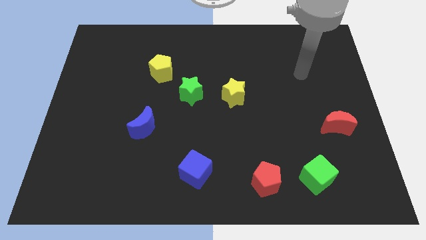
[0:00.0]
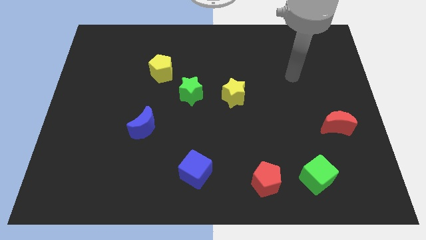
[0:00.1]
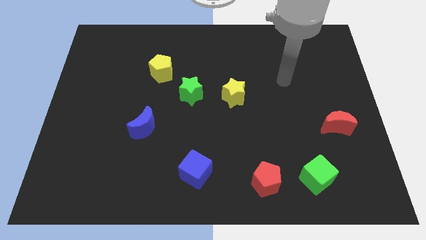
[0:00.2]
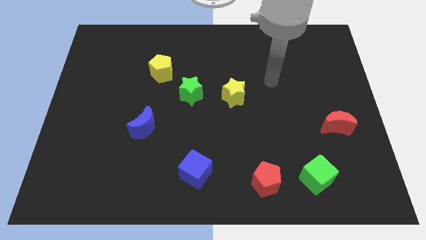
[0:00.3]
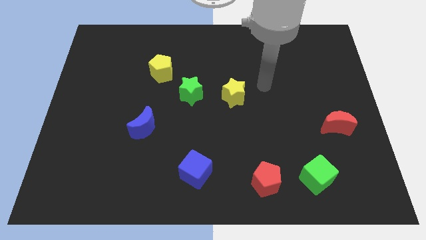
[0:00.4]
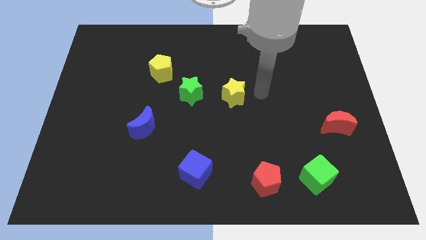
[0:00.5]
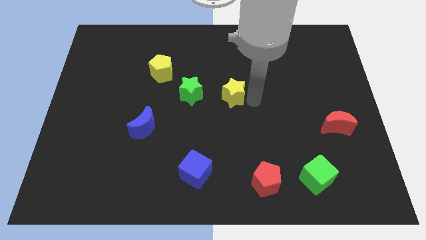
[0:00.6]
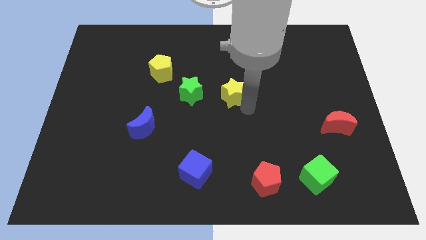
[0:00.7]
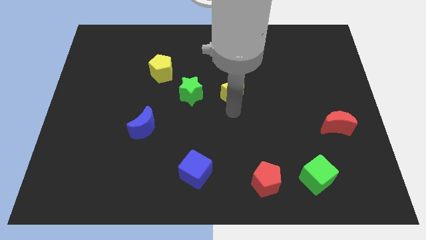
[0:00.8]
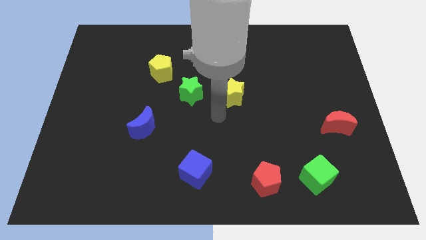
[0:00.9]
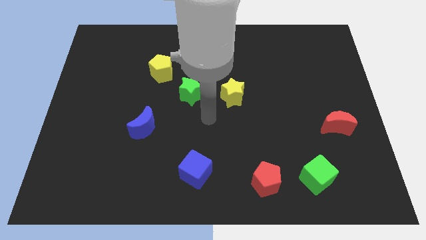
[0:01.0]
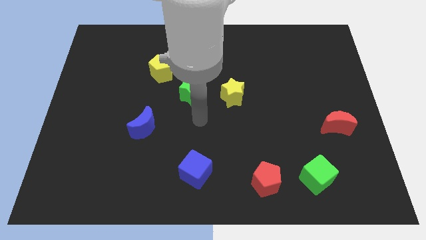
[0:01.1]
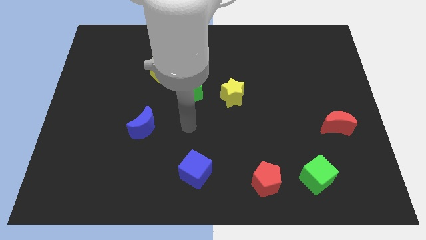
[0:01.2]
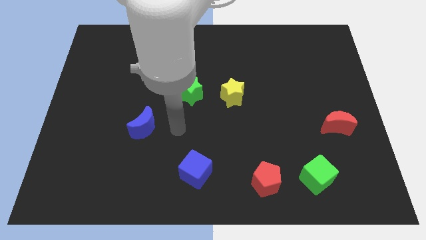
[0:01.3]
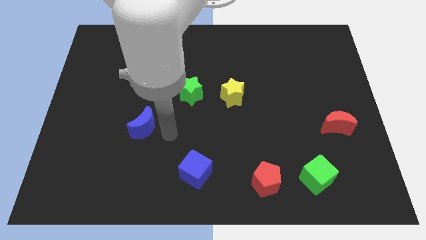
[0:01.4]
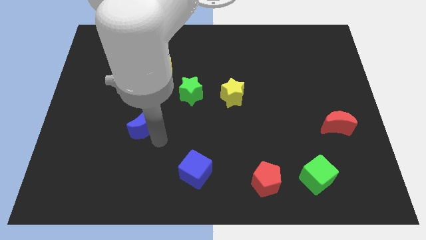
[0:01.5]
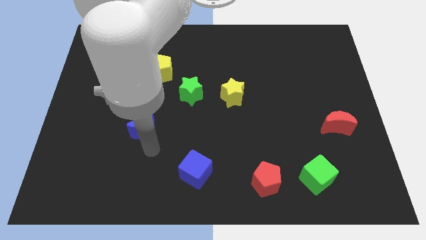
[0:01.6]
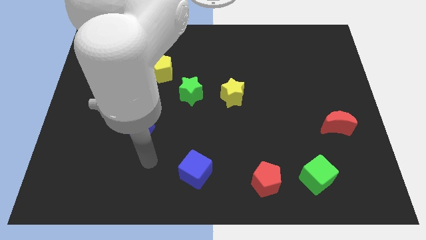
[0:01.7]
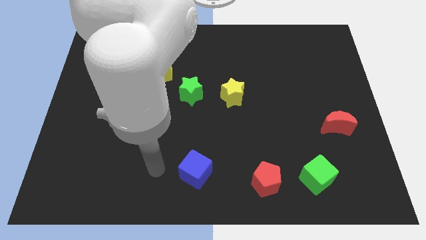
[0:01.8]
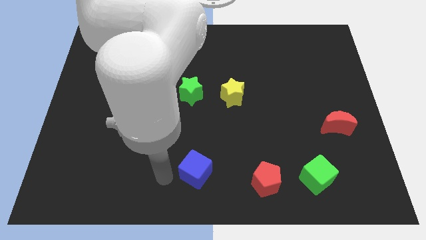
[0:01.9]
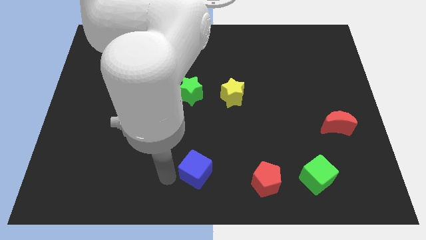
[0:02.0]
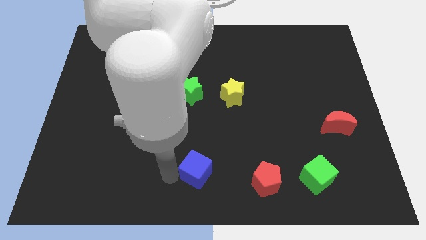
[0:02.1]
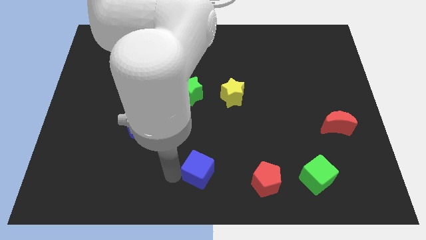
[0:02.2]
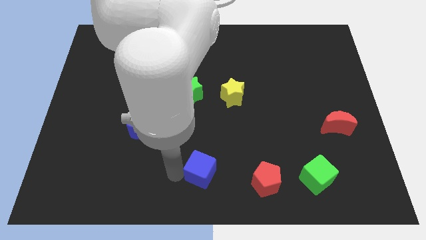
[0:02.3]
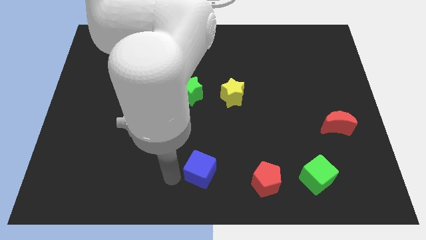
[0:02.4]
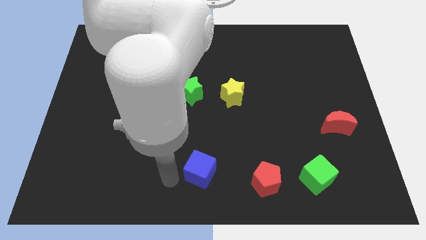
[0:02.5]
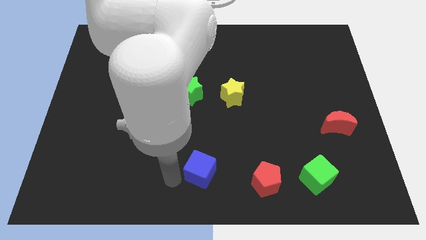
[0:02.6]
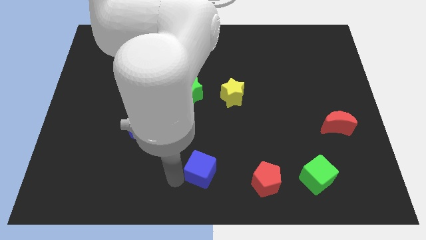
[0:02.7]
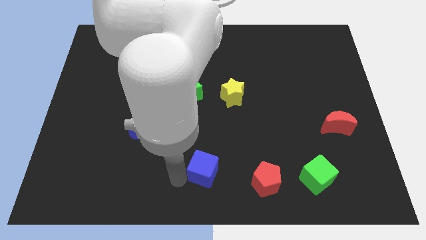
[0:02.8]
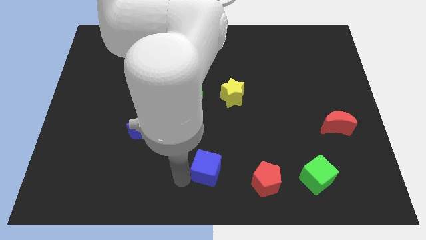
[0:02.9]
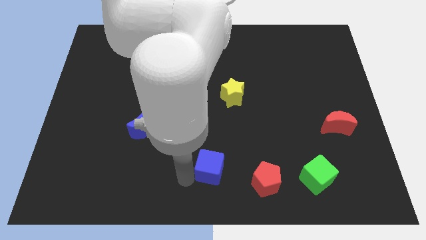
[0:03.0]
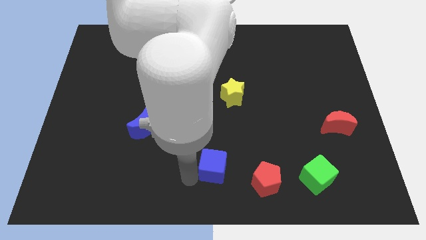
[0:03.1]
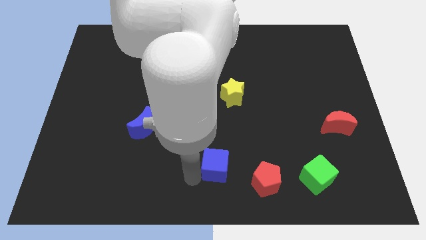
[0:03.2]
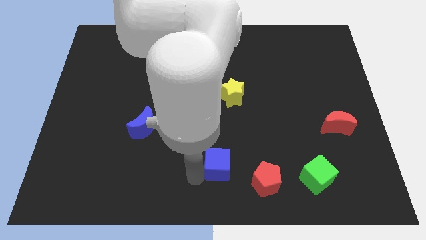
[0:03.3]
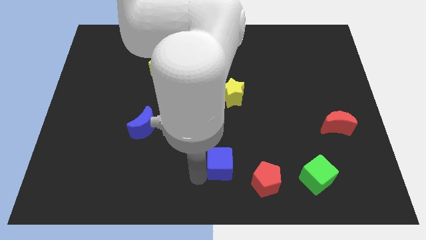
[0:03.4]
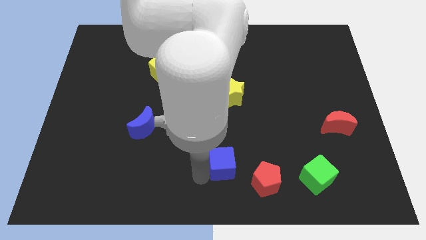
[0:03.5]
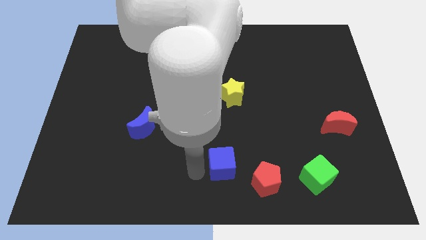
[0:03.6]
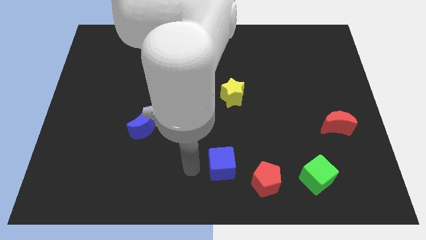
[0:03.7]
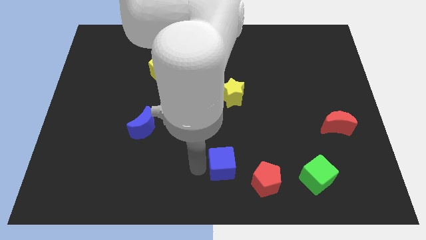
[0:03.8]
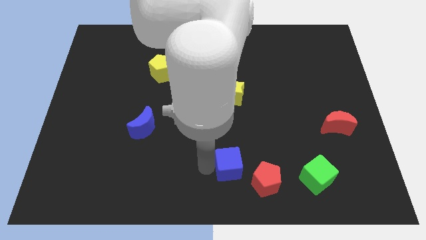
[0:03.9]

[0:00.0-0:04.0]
push the blue cube to the right a little

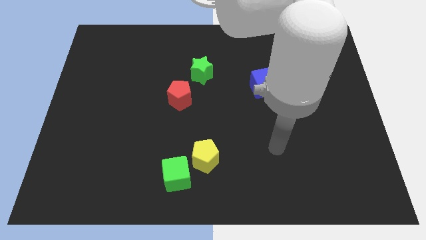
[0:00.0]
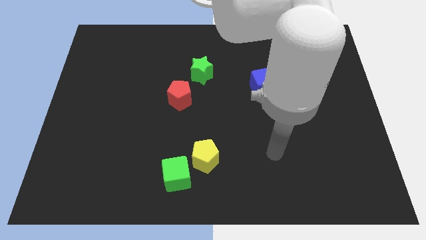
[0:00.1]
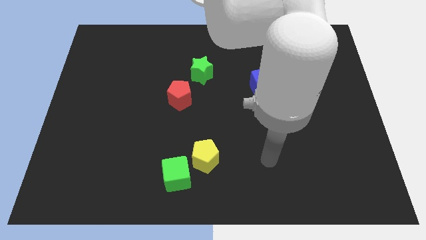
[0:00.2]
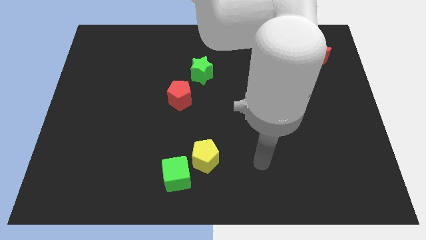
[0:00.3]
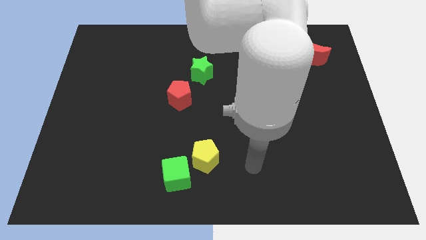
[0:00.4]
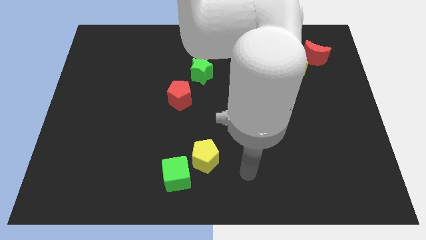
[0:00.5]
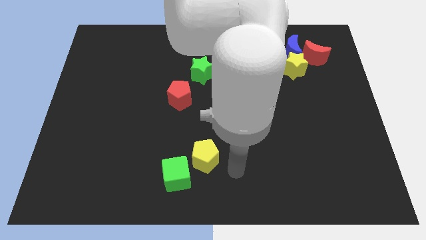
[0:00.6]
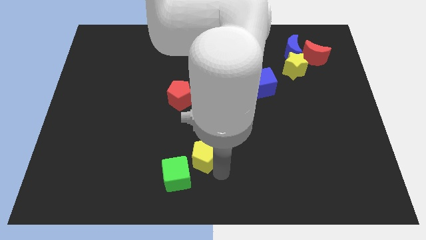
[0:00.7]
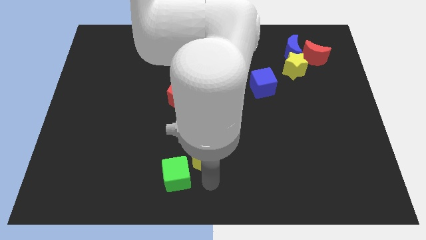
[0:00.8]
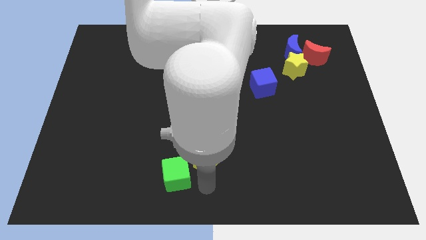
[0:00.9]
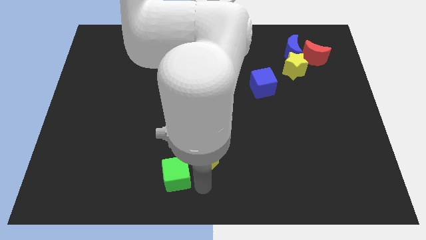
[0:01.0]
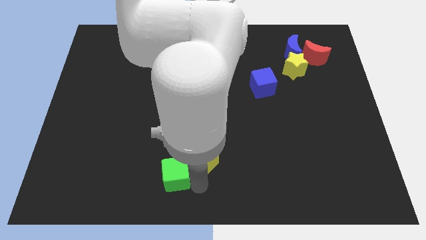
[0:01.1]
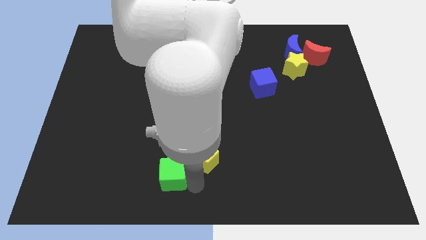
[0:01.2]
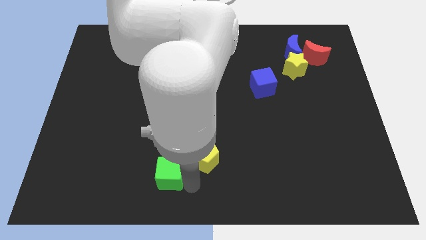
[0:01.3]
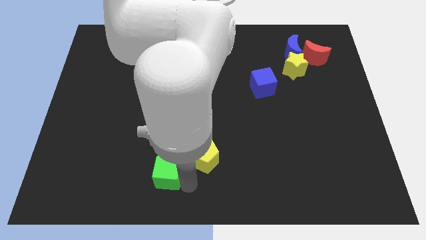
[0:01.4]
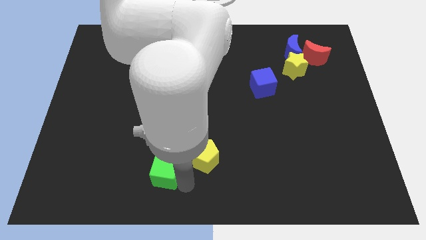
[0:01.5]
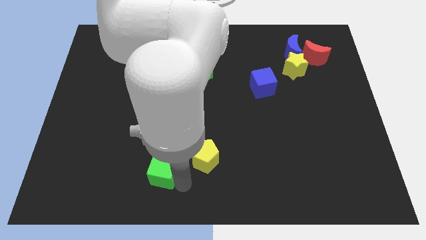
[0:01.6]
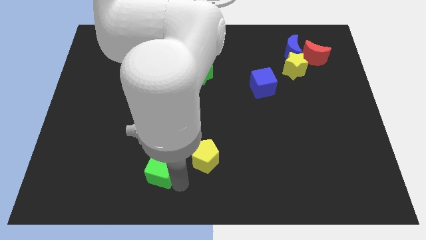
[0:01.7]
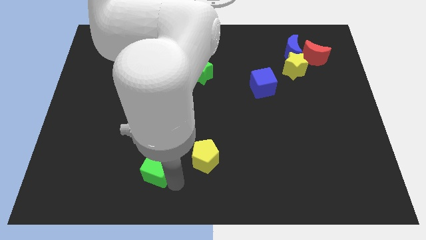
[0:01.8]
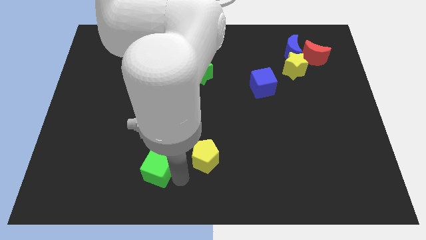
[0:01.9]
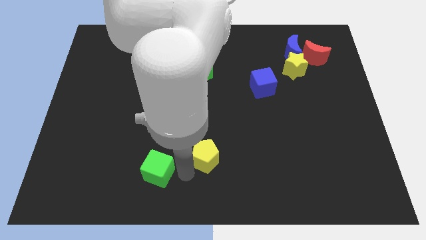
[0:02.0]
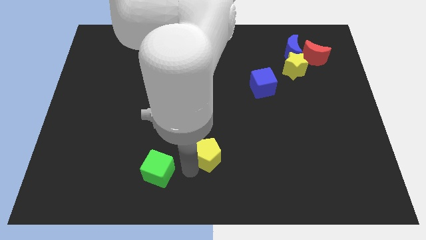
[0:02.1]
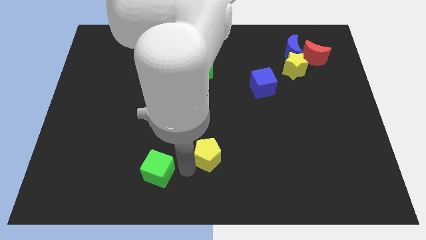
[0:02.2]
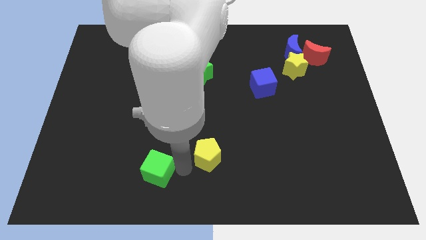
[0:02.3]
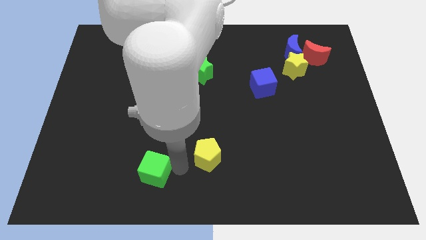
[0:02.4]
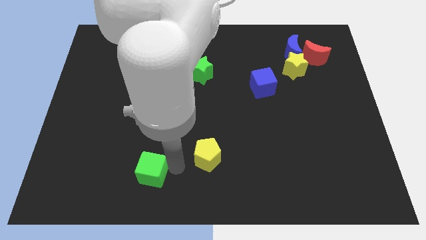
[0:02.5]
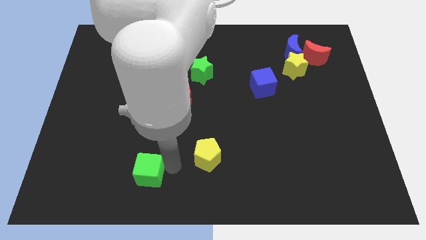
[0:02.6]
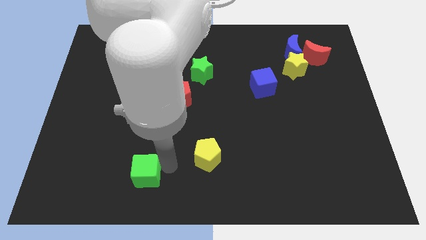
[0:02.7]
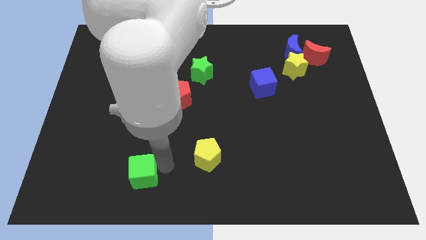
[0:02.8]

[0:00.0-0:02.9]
push the green cube a little left

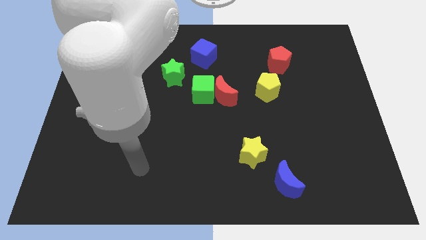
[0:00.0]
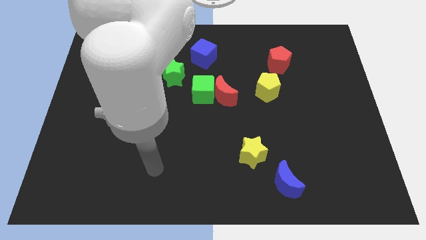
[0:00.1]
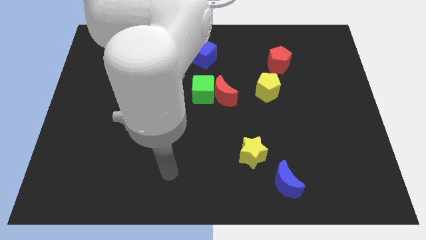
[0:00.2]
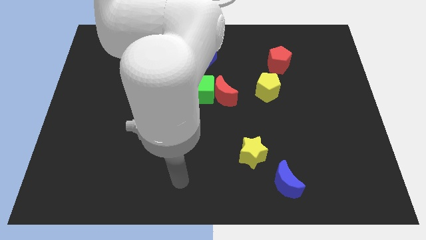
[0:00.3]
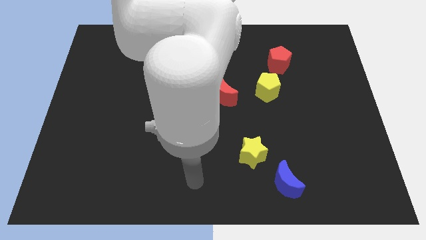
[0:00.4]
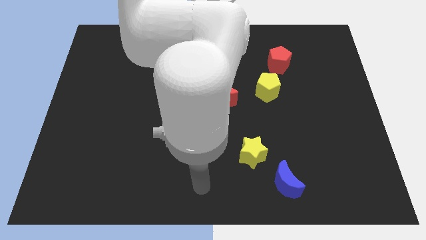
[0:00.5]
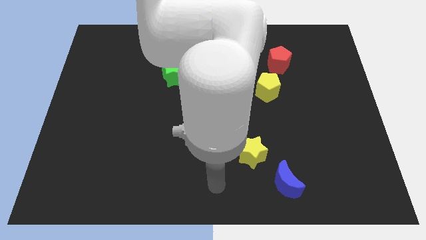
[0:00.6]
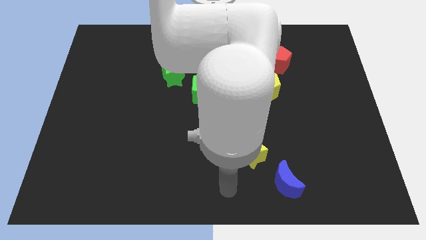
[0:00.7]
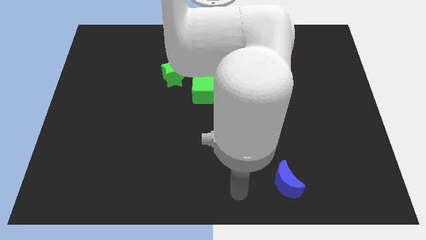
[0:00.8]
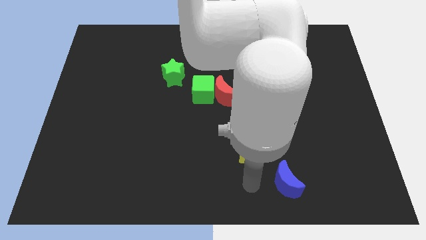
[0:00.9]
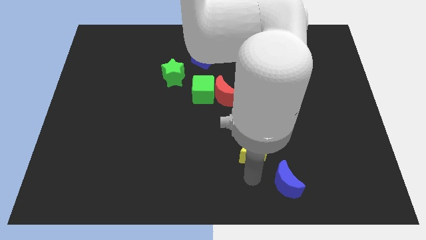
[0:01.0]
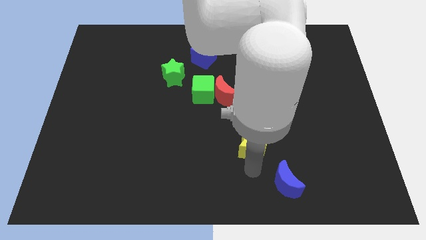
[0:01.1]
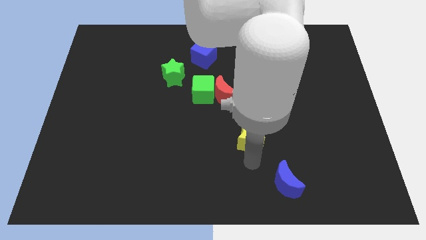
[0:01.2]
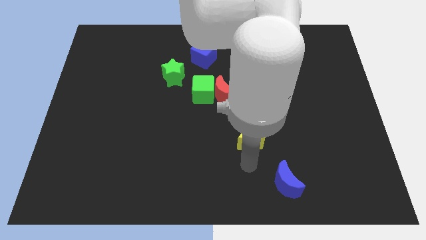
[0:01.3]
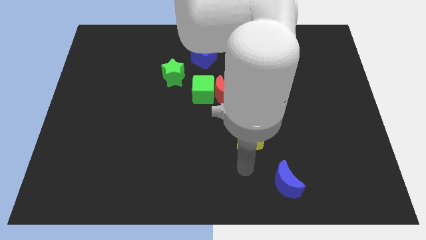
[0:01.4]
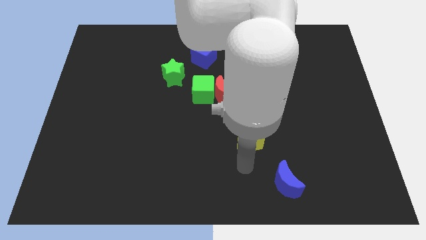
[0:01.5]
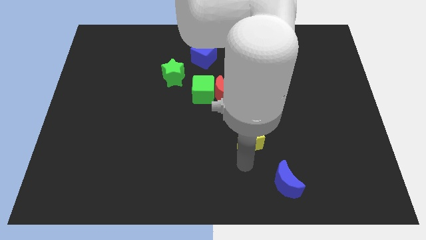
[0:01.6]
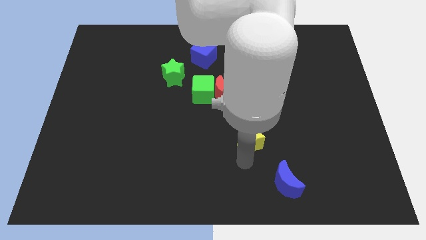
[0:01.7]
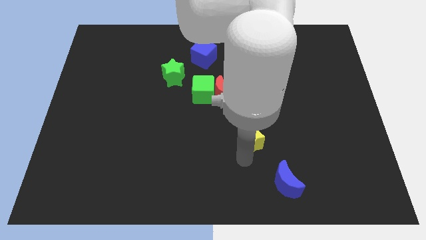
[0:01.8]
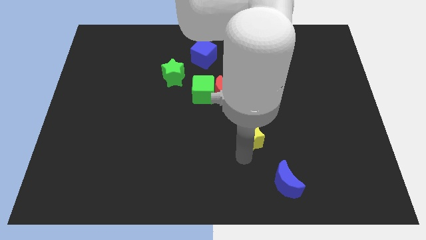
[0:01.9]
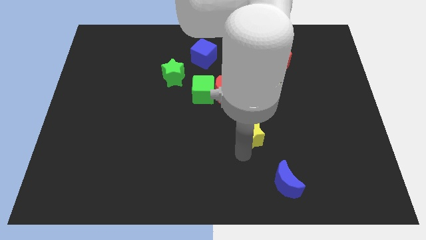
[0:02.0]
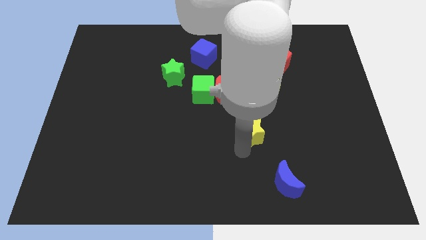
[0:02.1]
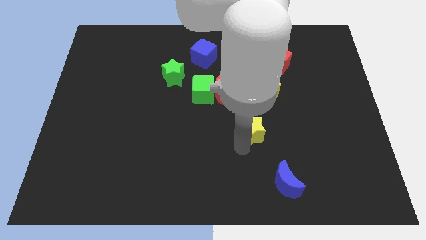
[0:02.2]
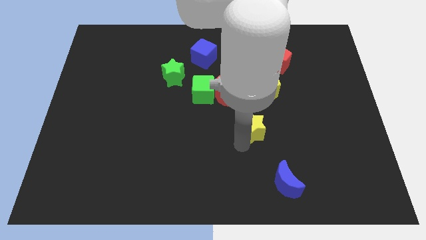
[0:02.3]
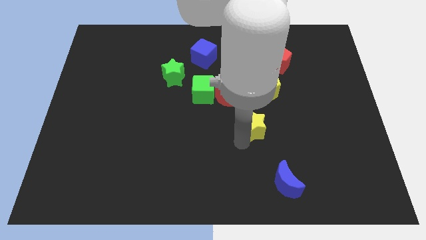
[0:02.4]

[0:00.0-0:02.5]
slide the yellow star upwards somewhat
